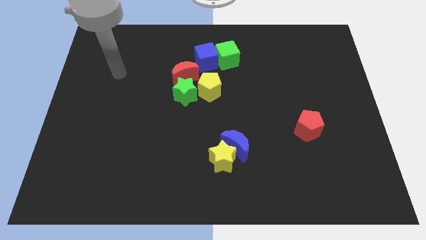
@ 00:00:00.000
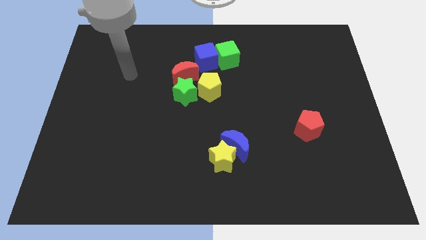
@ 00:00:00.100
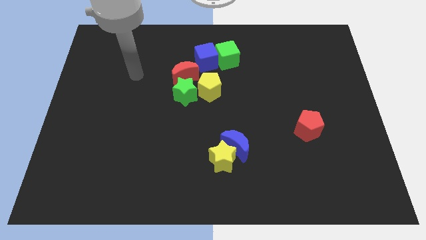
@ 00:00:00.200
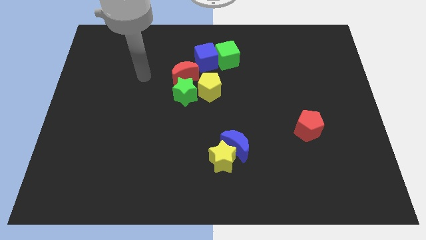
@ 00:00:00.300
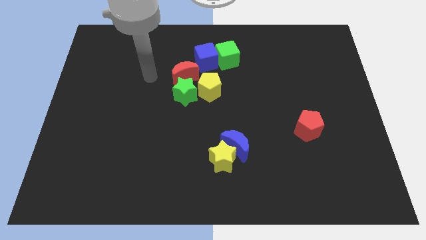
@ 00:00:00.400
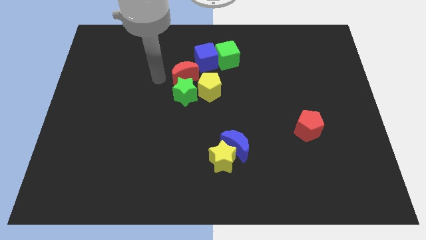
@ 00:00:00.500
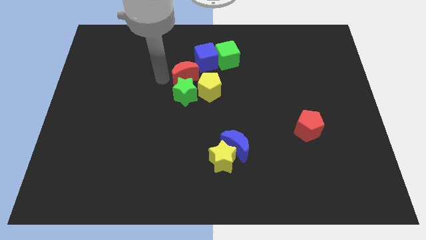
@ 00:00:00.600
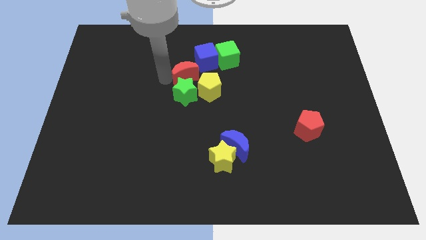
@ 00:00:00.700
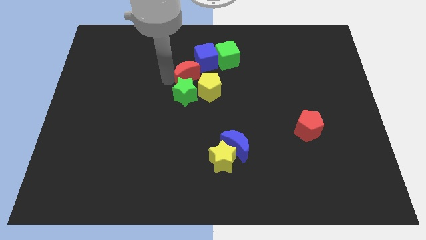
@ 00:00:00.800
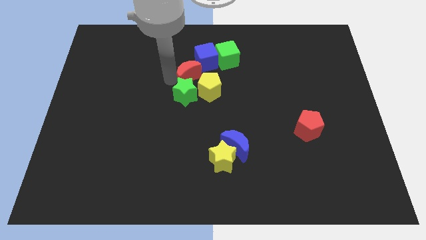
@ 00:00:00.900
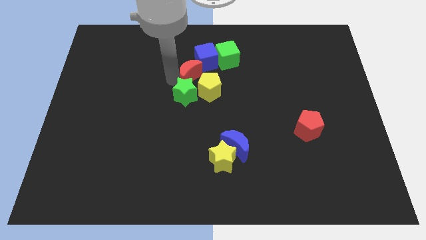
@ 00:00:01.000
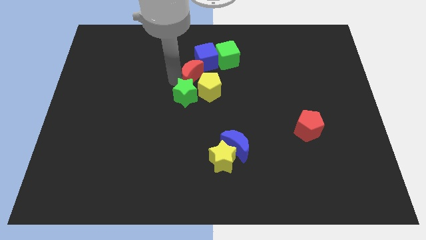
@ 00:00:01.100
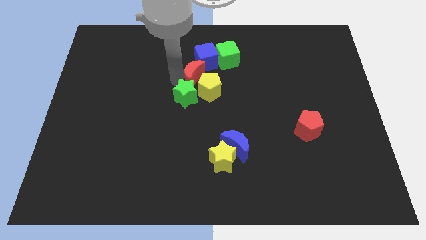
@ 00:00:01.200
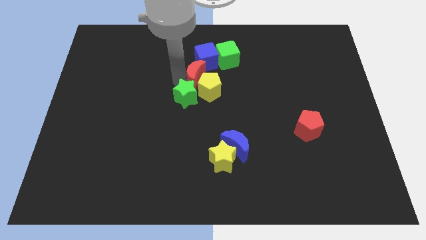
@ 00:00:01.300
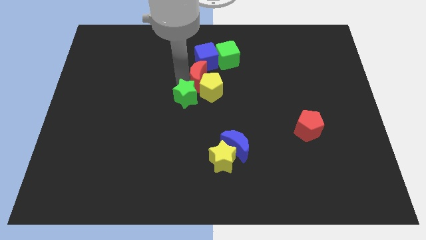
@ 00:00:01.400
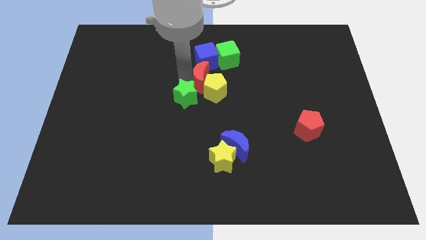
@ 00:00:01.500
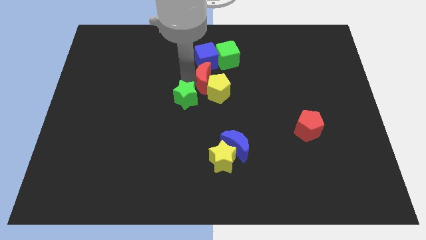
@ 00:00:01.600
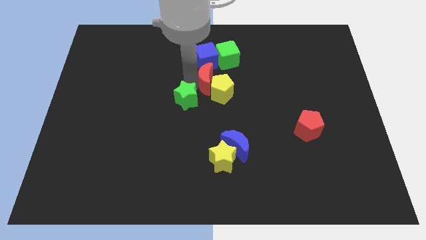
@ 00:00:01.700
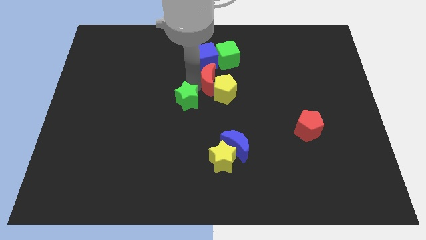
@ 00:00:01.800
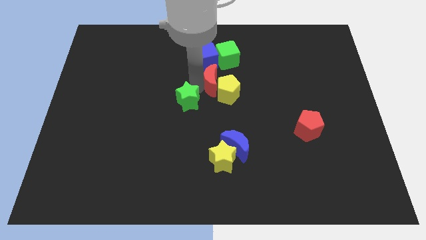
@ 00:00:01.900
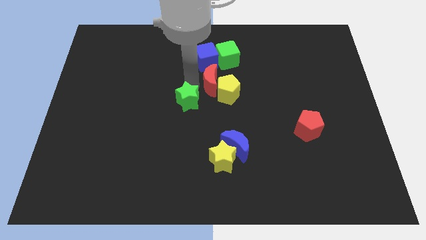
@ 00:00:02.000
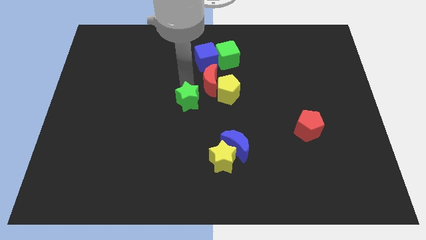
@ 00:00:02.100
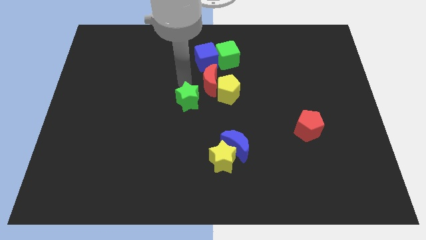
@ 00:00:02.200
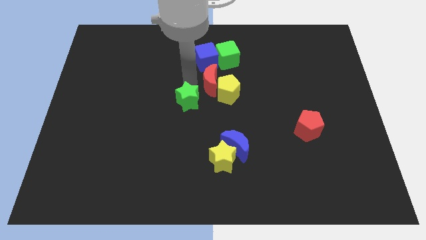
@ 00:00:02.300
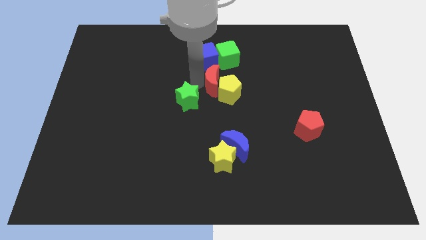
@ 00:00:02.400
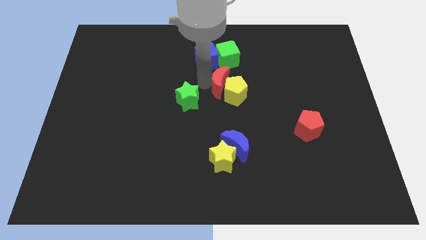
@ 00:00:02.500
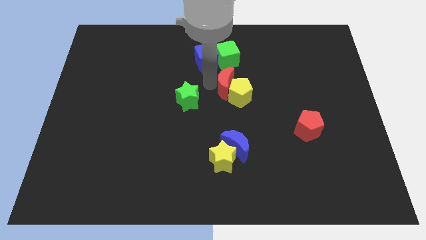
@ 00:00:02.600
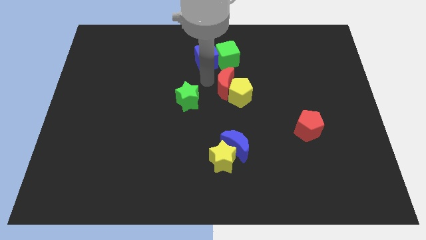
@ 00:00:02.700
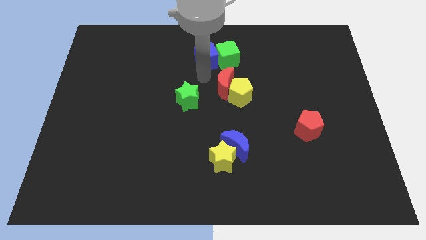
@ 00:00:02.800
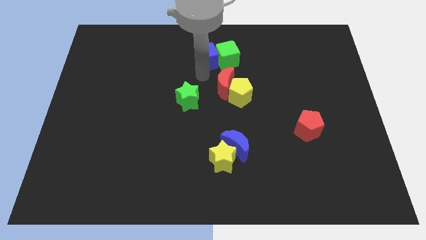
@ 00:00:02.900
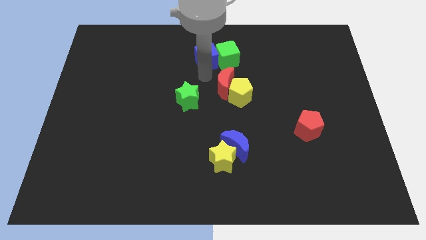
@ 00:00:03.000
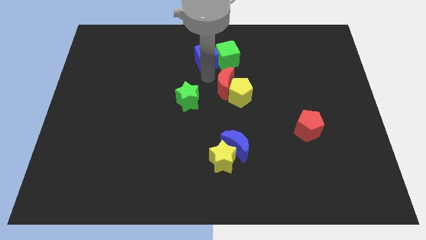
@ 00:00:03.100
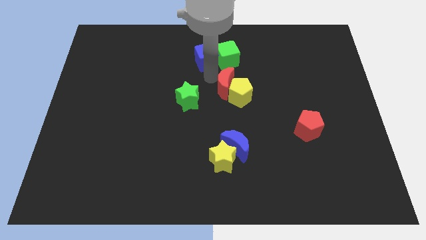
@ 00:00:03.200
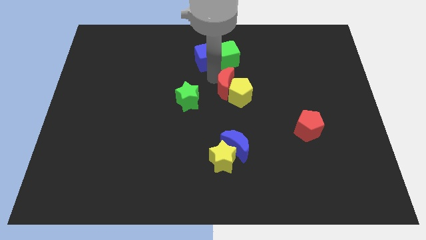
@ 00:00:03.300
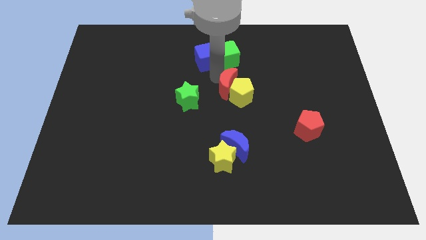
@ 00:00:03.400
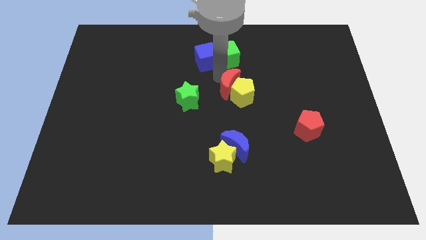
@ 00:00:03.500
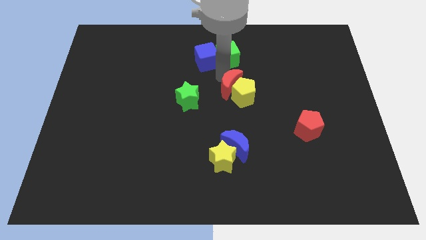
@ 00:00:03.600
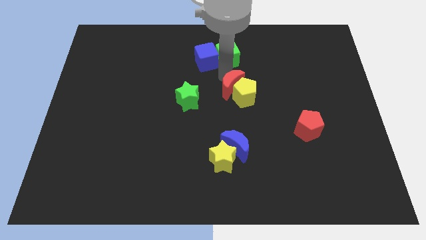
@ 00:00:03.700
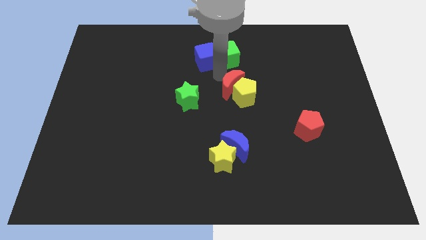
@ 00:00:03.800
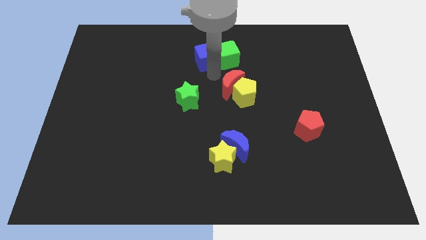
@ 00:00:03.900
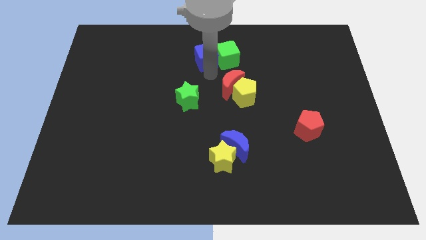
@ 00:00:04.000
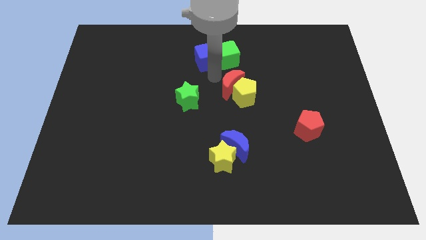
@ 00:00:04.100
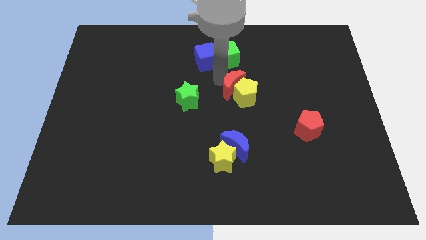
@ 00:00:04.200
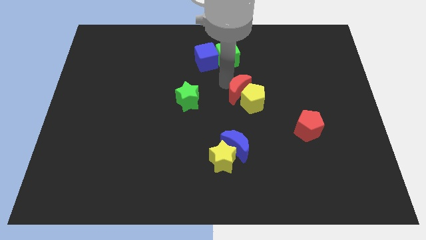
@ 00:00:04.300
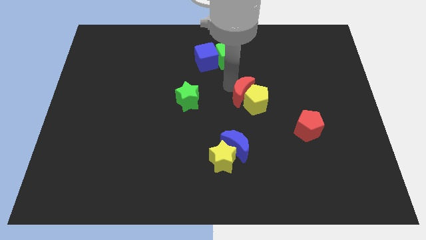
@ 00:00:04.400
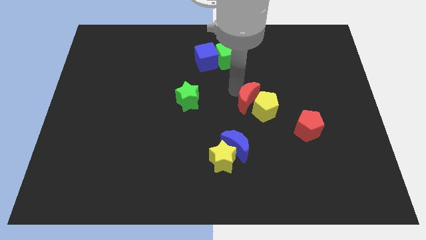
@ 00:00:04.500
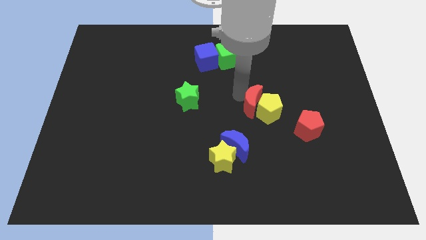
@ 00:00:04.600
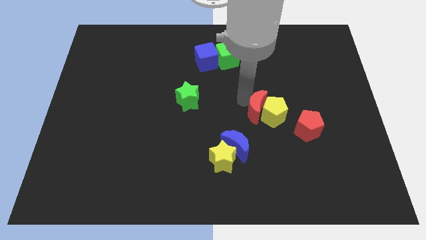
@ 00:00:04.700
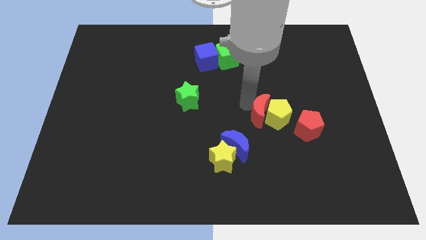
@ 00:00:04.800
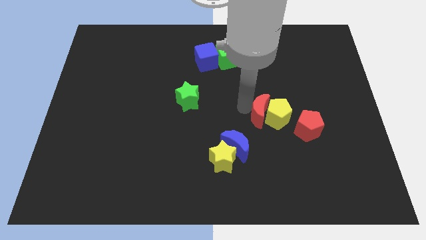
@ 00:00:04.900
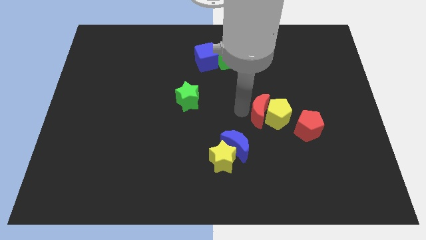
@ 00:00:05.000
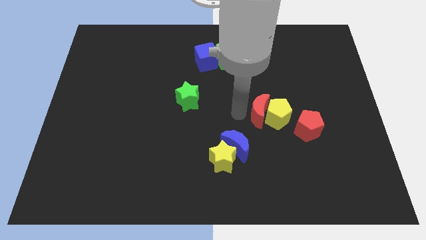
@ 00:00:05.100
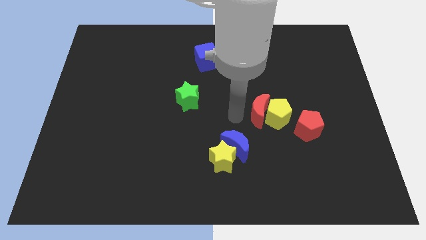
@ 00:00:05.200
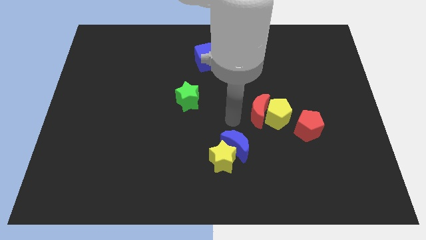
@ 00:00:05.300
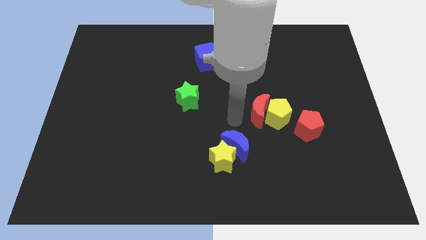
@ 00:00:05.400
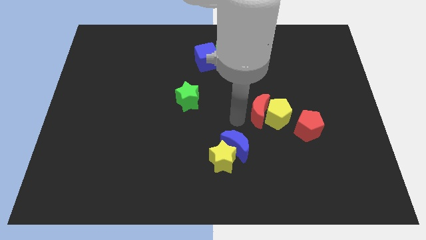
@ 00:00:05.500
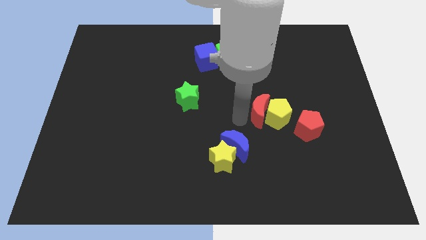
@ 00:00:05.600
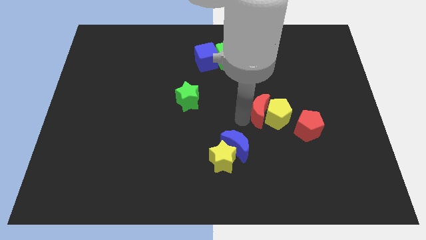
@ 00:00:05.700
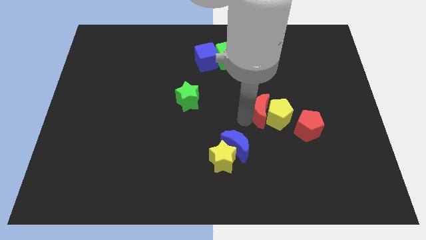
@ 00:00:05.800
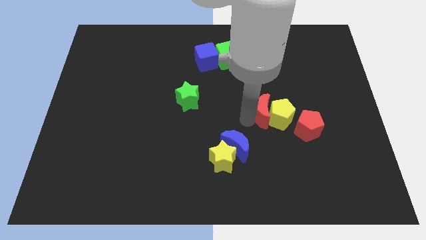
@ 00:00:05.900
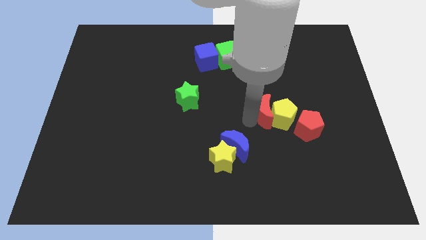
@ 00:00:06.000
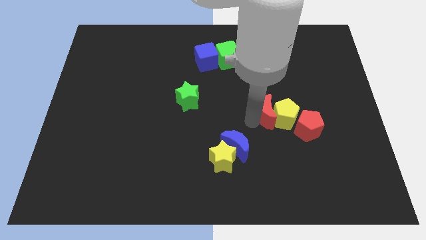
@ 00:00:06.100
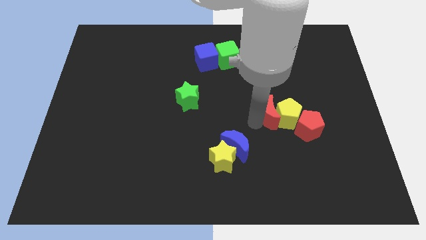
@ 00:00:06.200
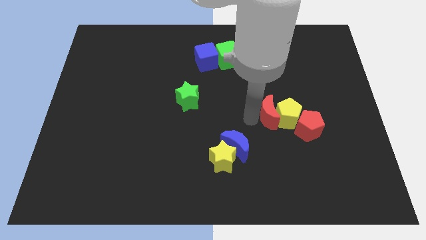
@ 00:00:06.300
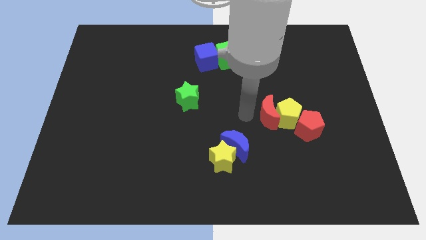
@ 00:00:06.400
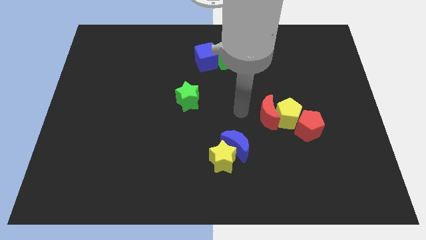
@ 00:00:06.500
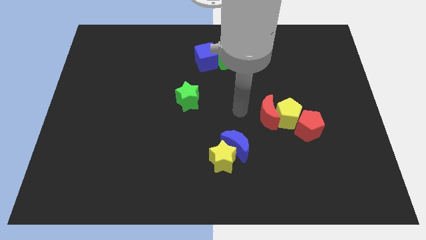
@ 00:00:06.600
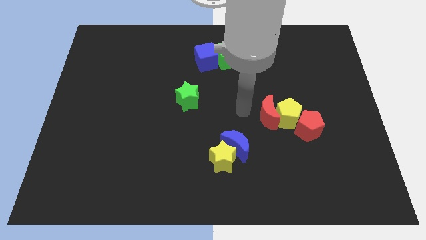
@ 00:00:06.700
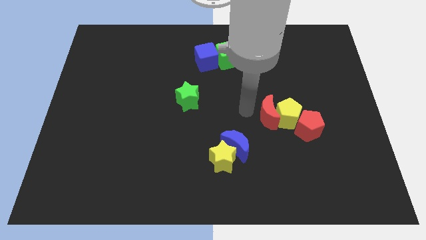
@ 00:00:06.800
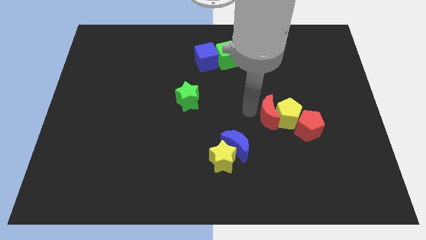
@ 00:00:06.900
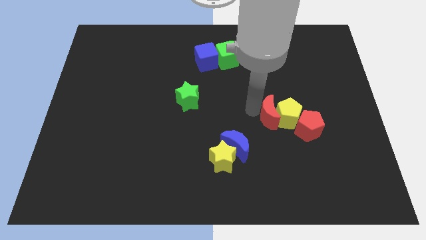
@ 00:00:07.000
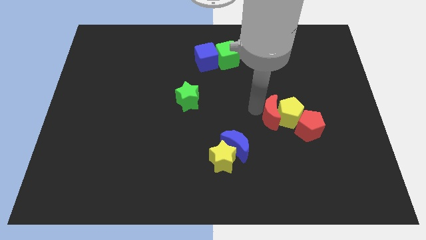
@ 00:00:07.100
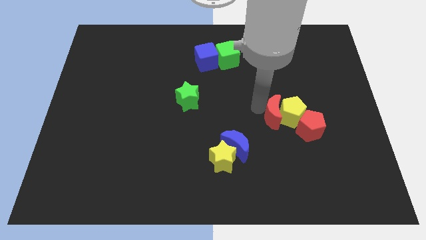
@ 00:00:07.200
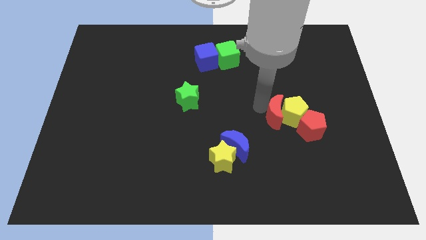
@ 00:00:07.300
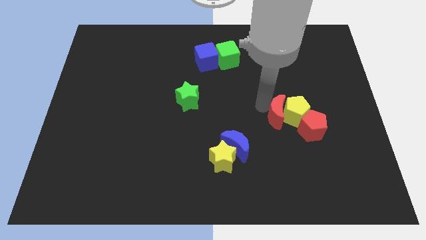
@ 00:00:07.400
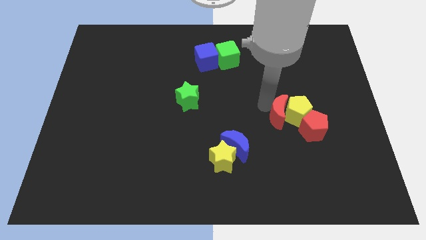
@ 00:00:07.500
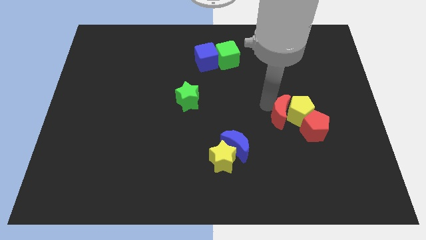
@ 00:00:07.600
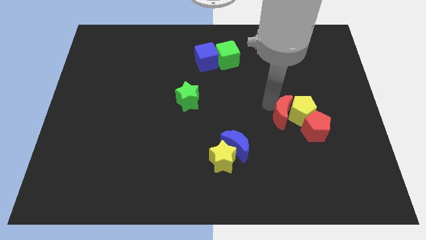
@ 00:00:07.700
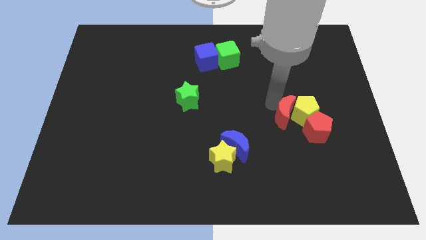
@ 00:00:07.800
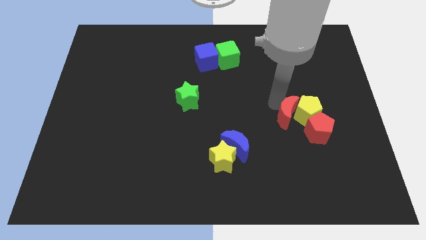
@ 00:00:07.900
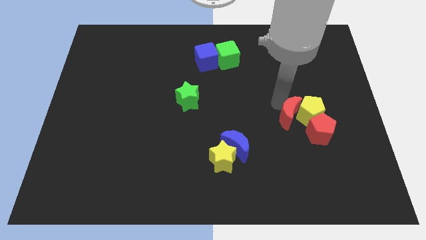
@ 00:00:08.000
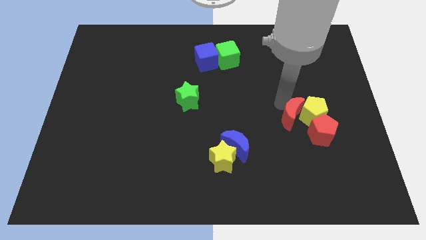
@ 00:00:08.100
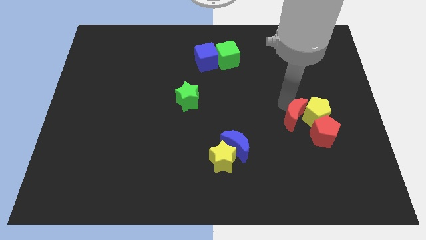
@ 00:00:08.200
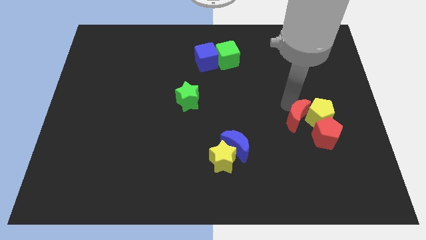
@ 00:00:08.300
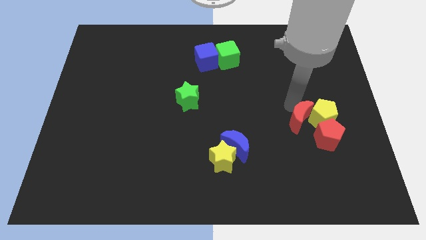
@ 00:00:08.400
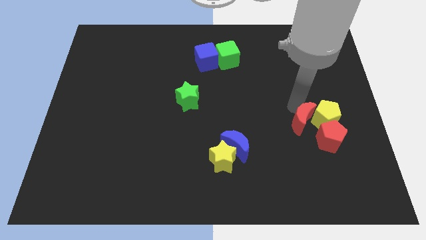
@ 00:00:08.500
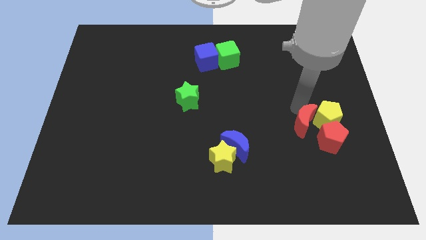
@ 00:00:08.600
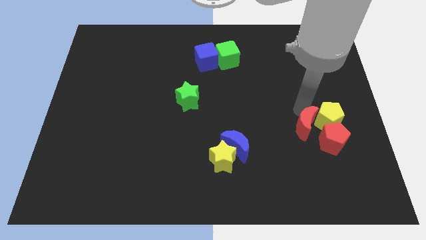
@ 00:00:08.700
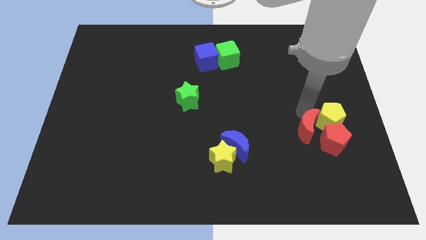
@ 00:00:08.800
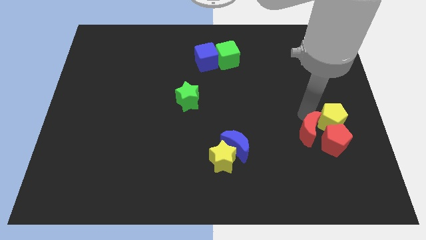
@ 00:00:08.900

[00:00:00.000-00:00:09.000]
push the red moon to the red pentagon
